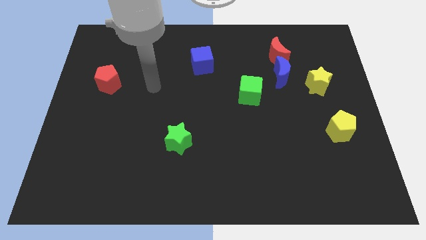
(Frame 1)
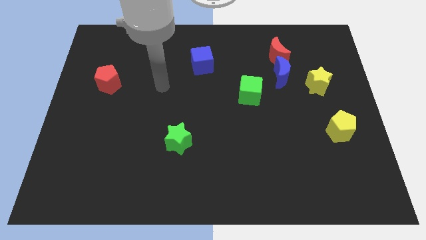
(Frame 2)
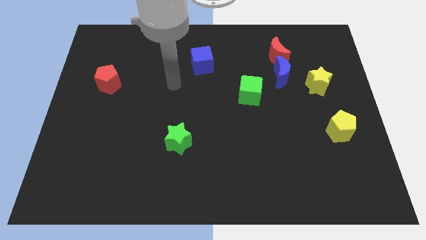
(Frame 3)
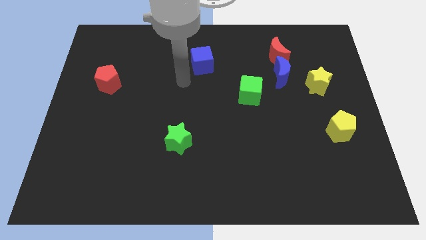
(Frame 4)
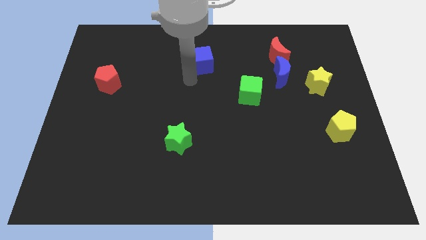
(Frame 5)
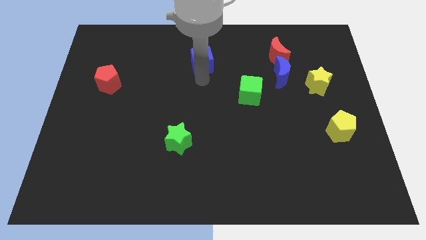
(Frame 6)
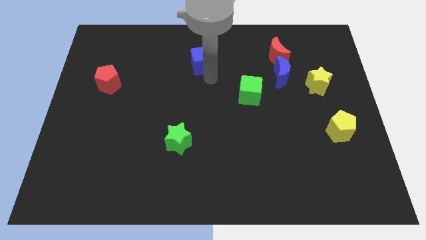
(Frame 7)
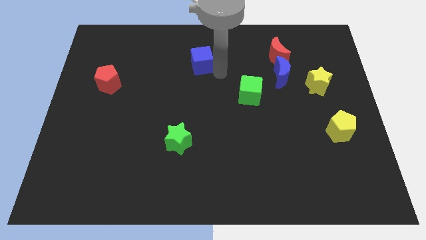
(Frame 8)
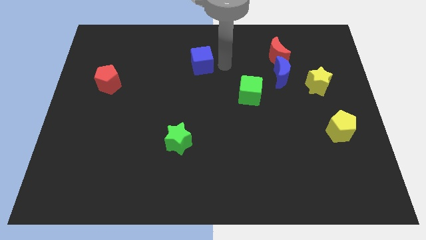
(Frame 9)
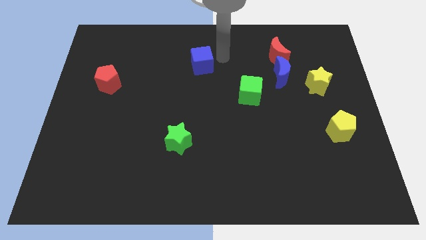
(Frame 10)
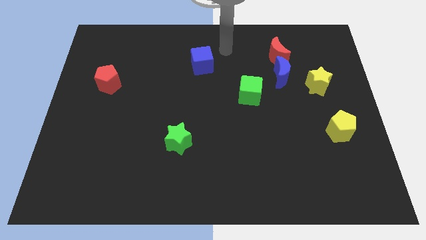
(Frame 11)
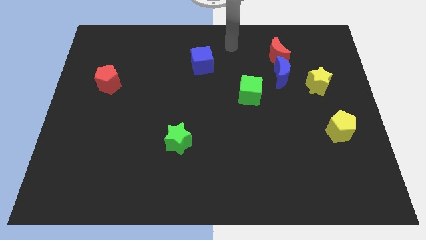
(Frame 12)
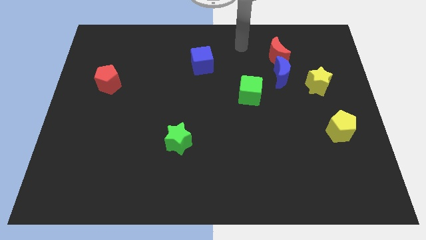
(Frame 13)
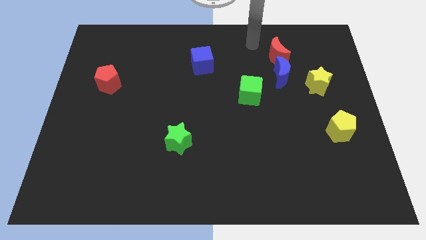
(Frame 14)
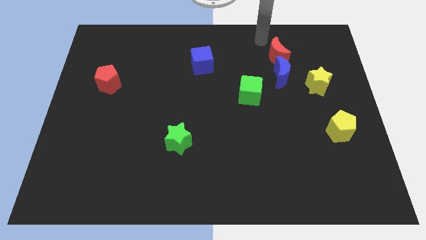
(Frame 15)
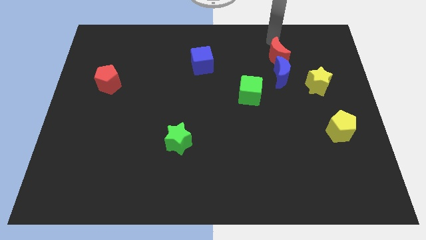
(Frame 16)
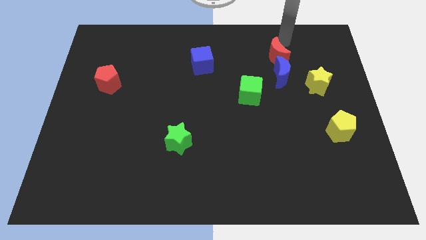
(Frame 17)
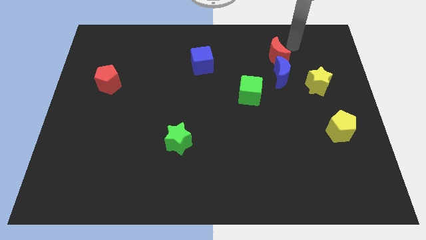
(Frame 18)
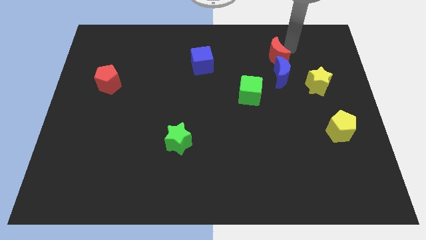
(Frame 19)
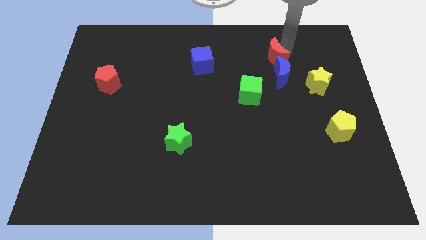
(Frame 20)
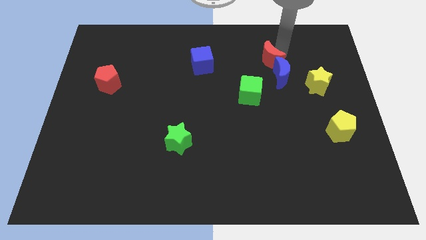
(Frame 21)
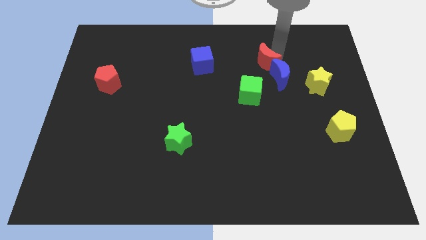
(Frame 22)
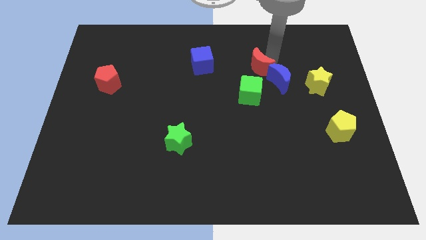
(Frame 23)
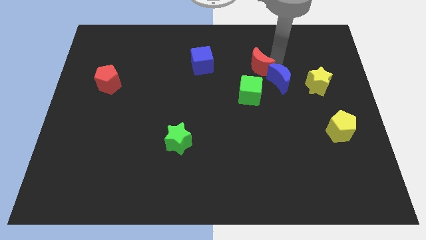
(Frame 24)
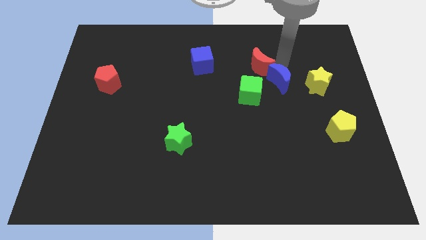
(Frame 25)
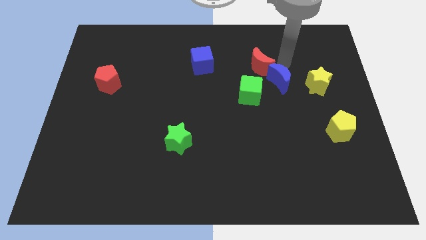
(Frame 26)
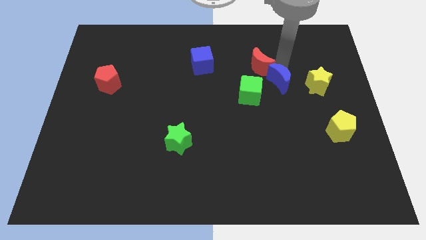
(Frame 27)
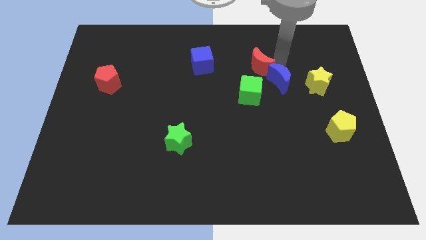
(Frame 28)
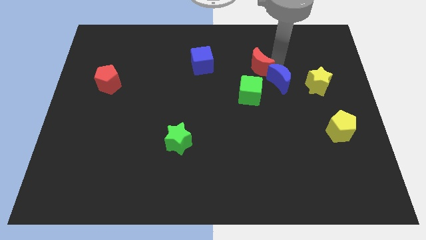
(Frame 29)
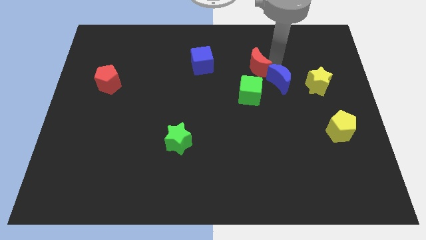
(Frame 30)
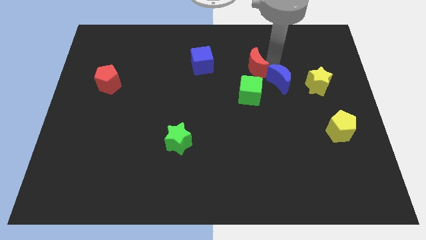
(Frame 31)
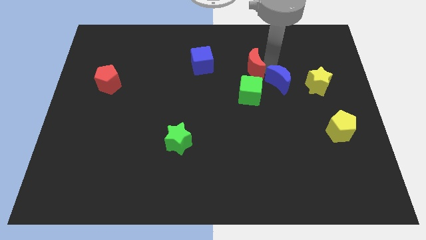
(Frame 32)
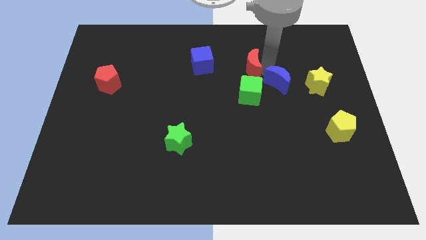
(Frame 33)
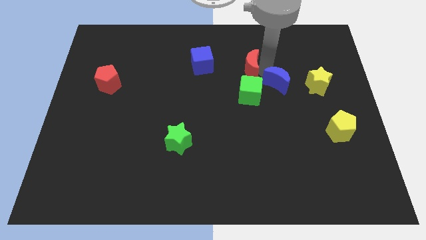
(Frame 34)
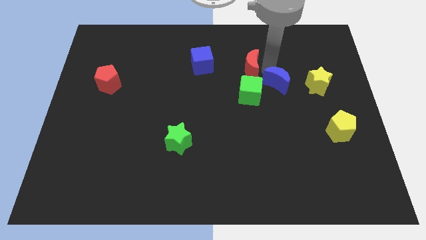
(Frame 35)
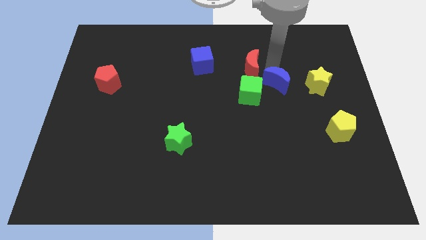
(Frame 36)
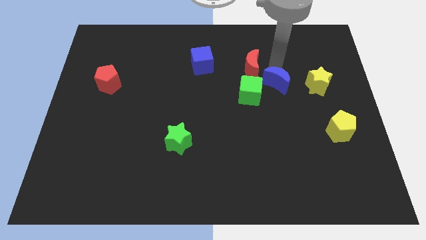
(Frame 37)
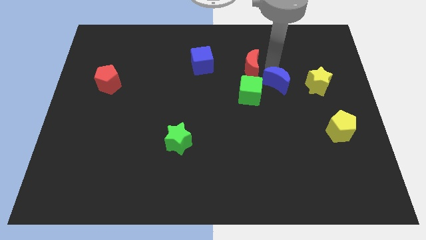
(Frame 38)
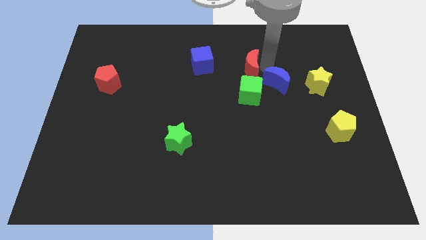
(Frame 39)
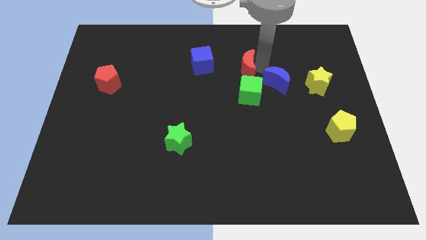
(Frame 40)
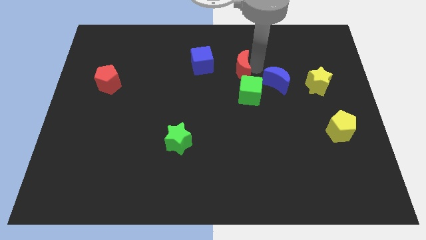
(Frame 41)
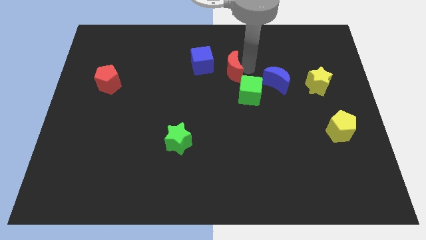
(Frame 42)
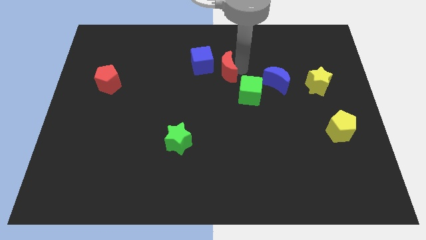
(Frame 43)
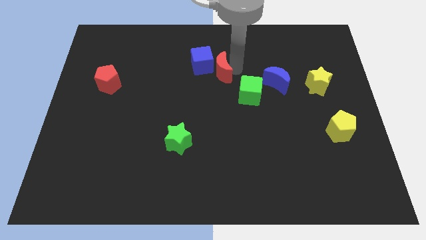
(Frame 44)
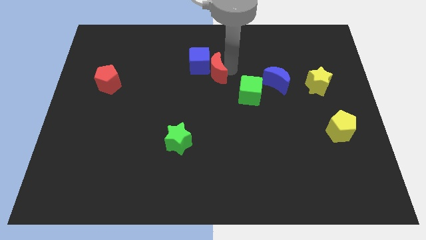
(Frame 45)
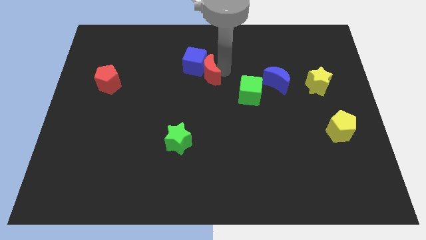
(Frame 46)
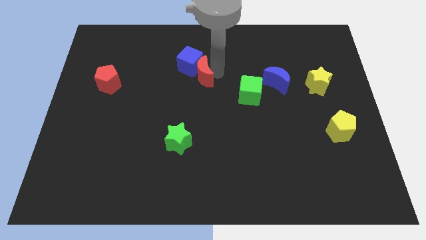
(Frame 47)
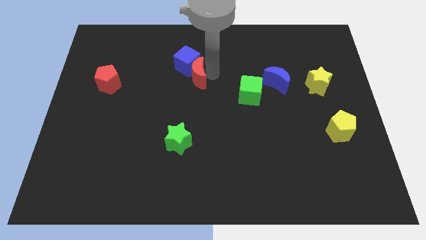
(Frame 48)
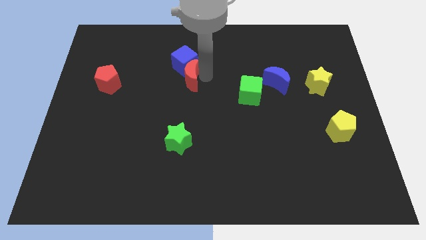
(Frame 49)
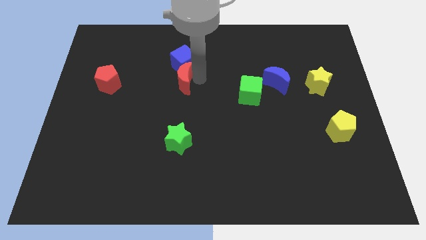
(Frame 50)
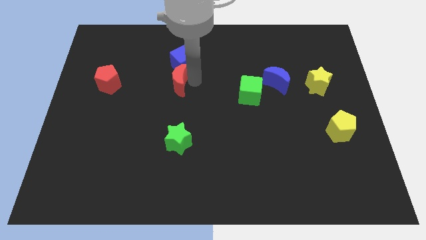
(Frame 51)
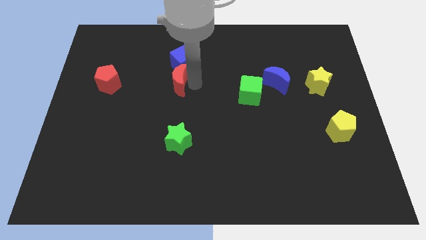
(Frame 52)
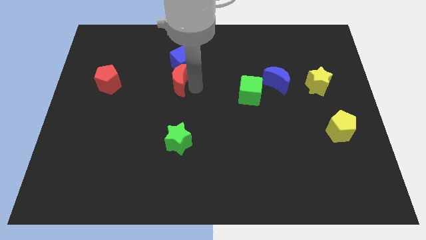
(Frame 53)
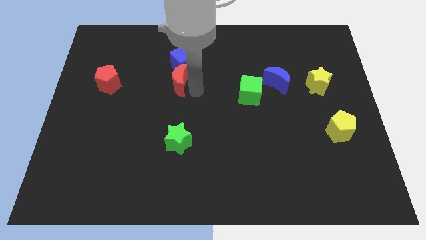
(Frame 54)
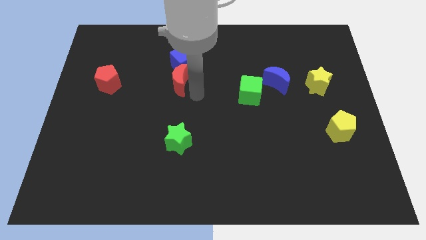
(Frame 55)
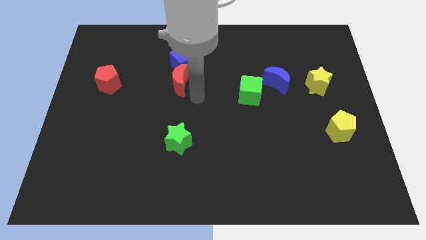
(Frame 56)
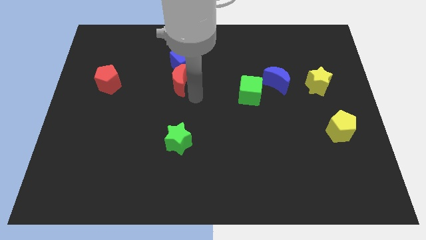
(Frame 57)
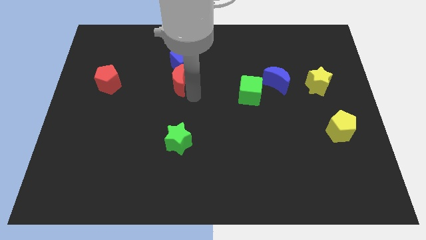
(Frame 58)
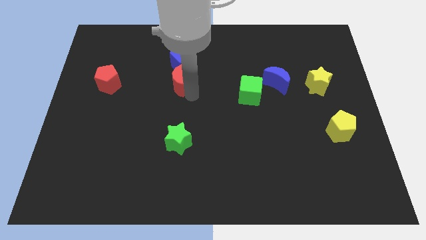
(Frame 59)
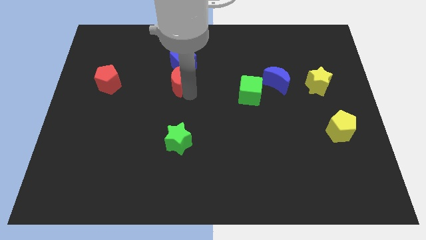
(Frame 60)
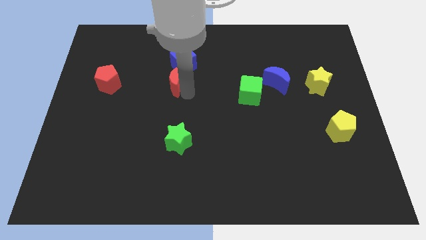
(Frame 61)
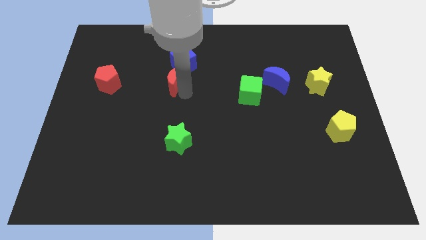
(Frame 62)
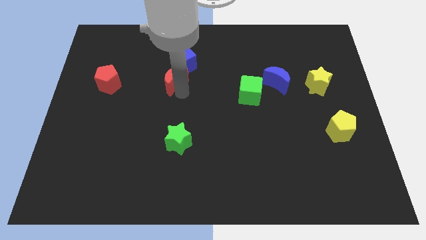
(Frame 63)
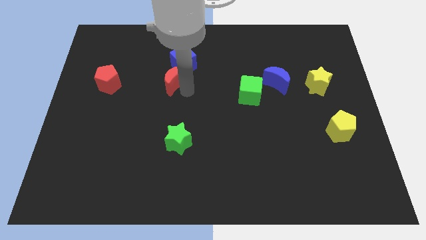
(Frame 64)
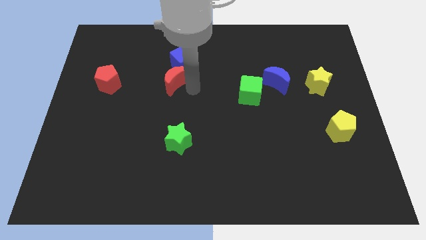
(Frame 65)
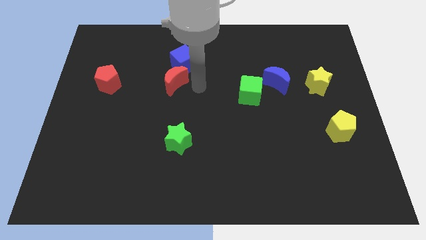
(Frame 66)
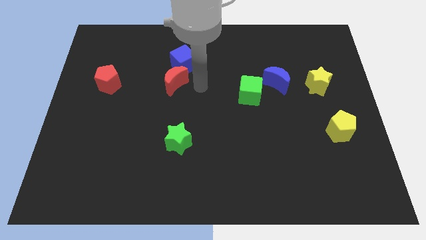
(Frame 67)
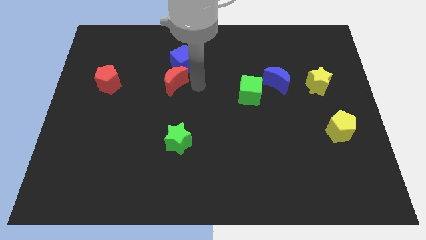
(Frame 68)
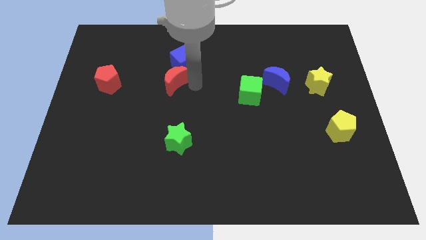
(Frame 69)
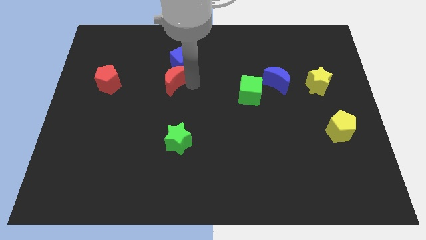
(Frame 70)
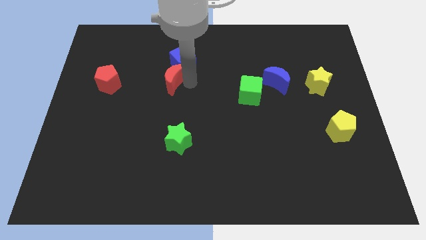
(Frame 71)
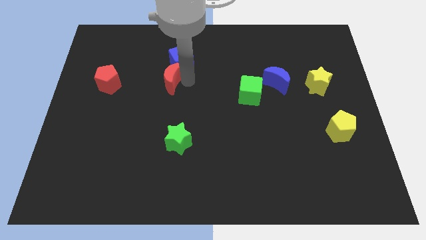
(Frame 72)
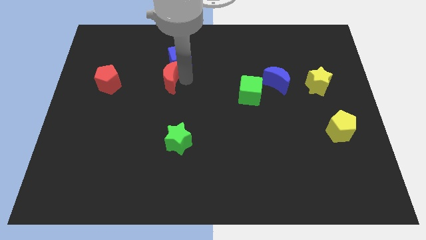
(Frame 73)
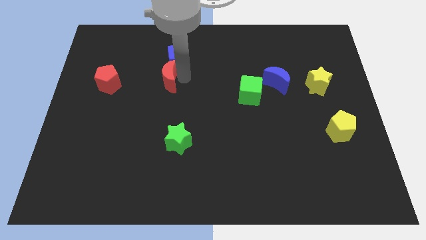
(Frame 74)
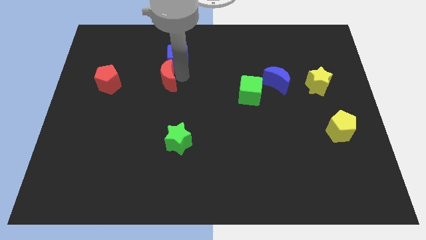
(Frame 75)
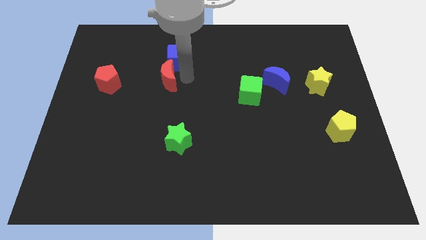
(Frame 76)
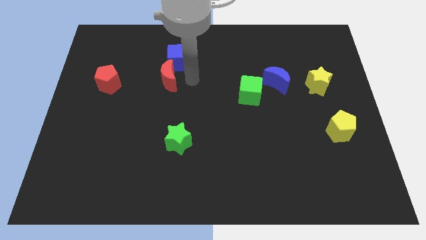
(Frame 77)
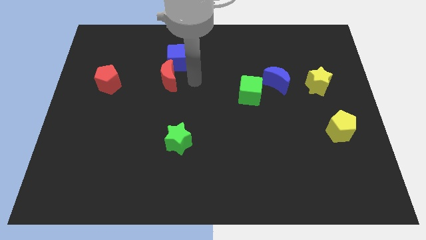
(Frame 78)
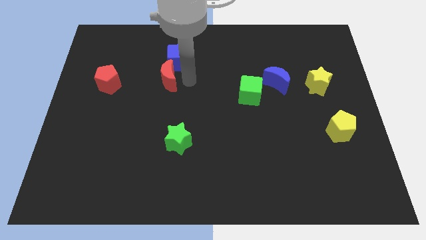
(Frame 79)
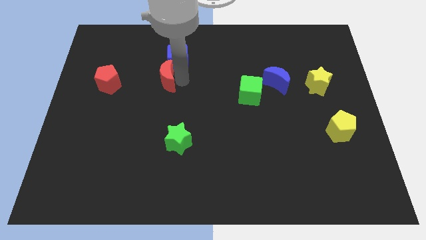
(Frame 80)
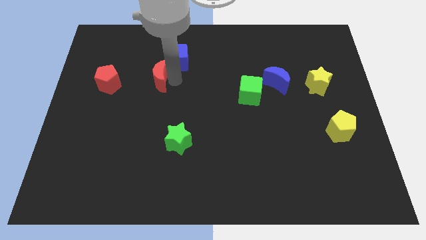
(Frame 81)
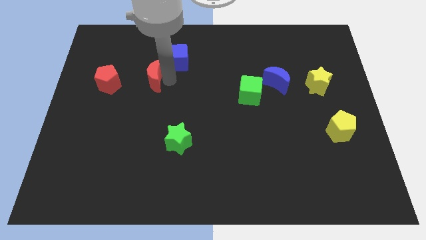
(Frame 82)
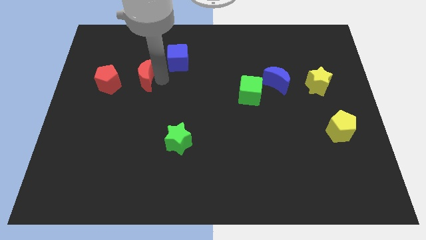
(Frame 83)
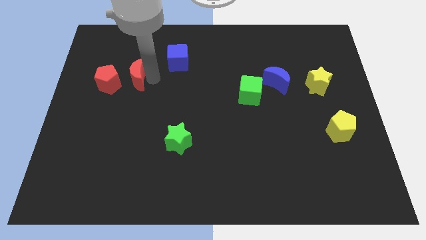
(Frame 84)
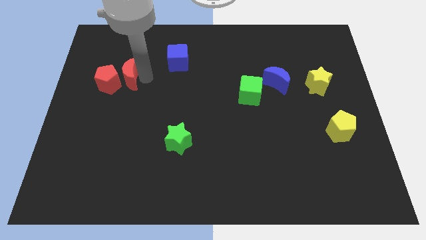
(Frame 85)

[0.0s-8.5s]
push the red moon close to the red pentagon
